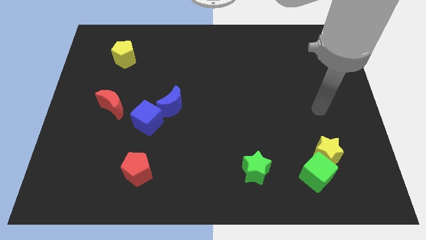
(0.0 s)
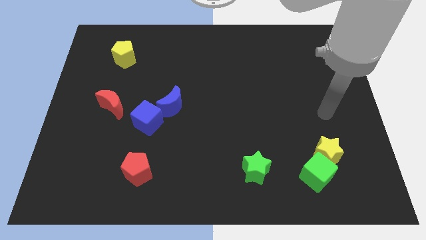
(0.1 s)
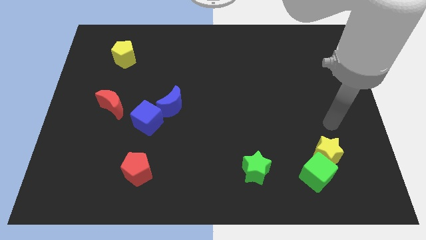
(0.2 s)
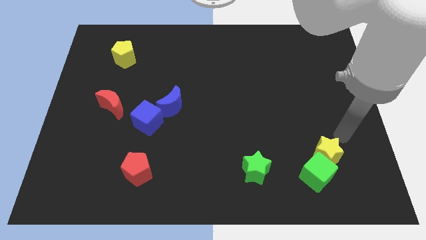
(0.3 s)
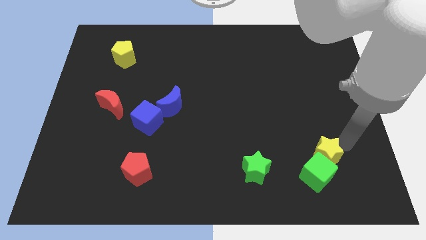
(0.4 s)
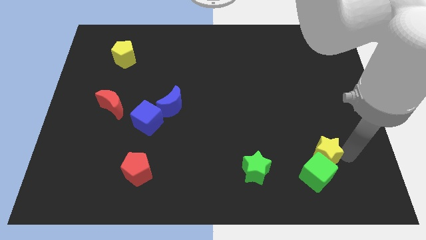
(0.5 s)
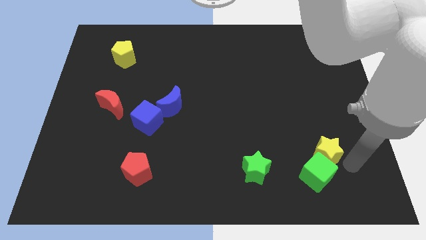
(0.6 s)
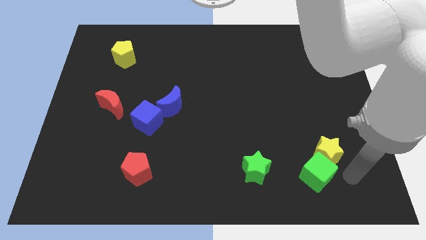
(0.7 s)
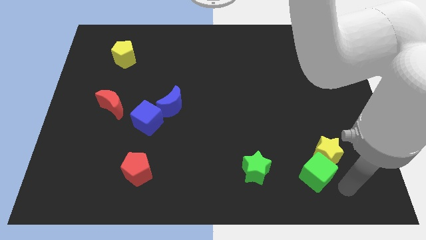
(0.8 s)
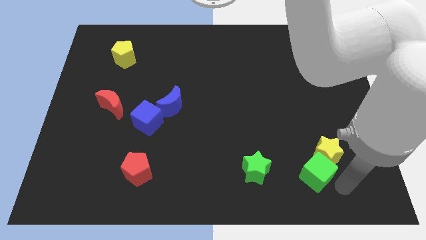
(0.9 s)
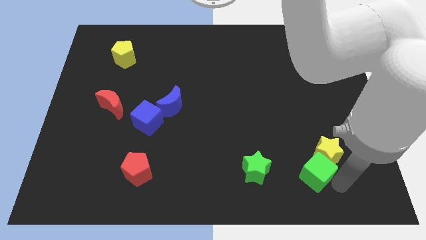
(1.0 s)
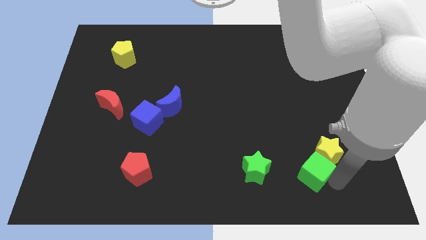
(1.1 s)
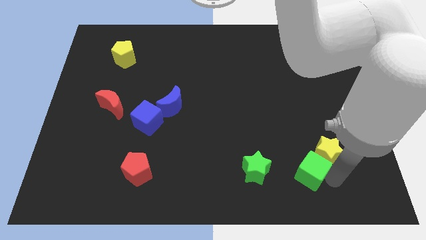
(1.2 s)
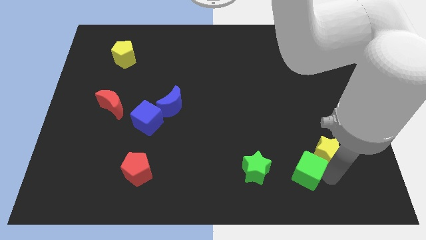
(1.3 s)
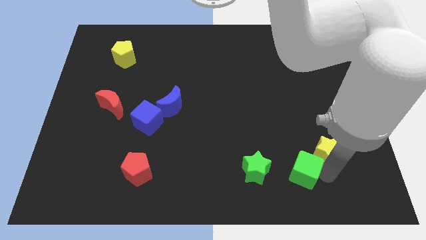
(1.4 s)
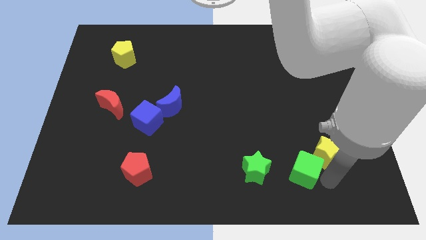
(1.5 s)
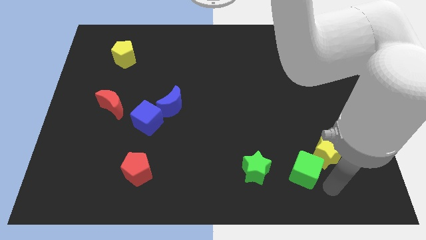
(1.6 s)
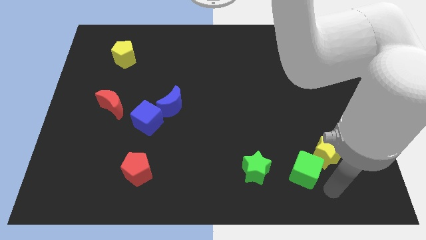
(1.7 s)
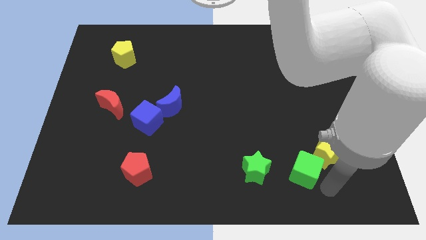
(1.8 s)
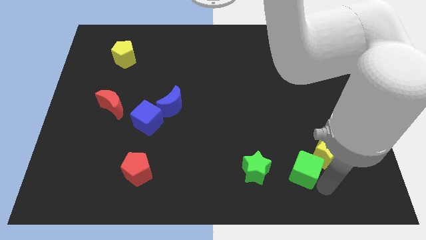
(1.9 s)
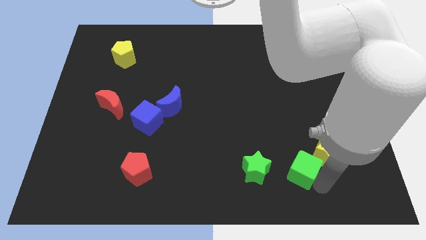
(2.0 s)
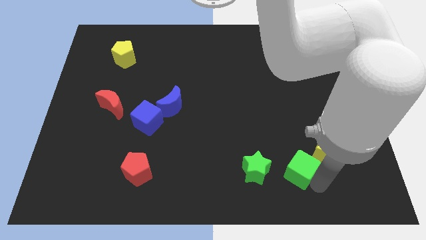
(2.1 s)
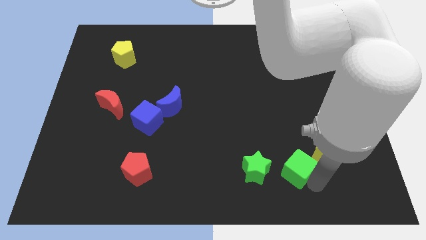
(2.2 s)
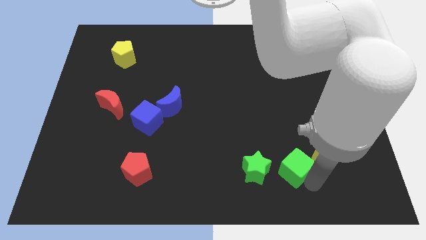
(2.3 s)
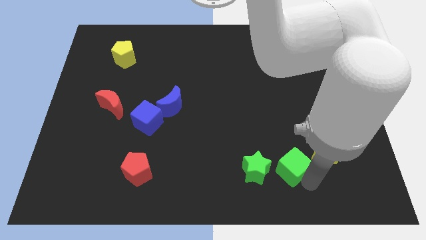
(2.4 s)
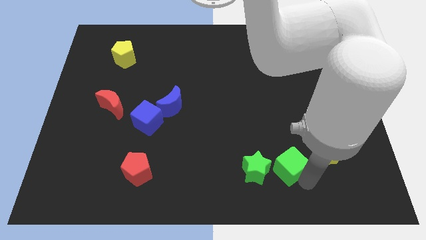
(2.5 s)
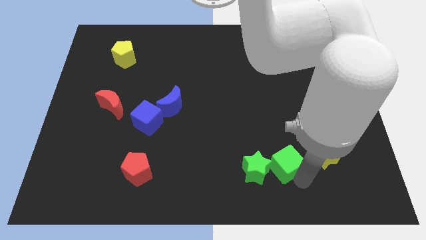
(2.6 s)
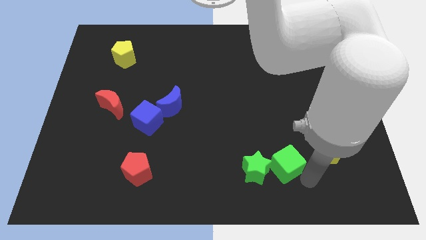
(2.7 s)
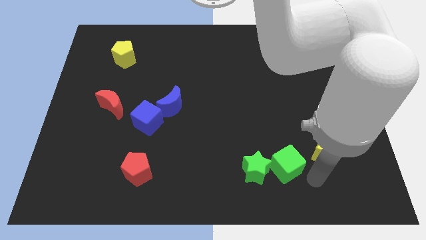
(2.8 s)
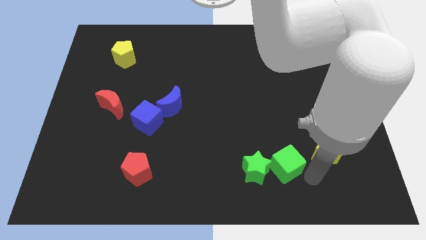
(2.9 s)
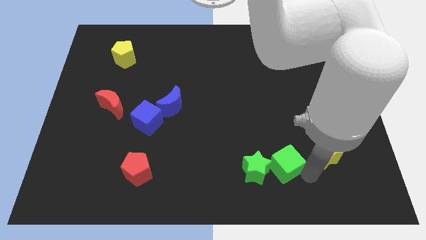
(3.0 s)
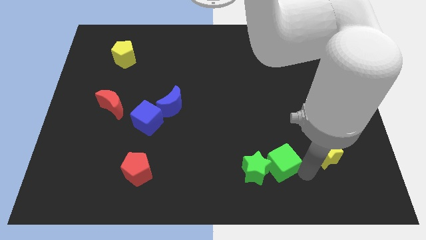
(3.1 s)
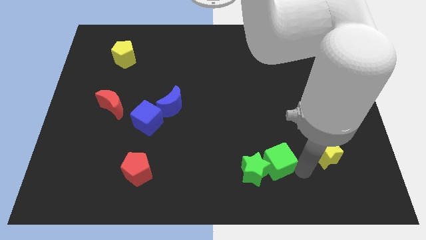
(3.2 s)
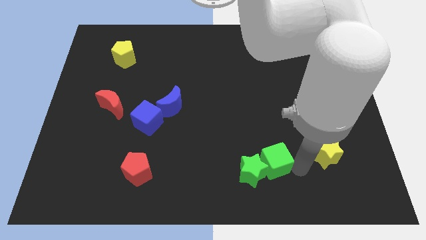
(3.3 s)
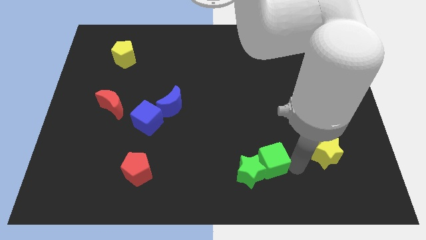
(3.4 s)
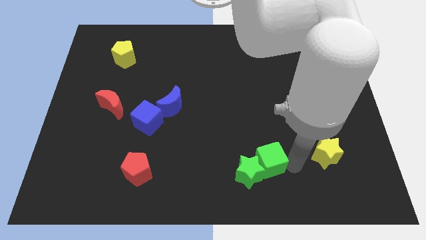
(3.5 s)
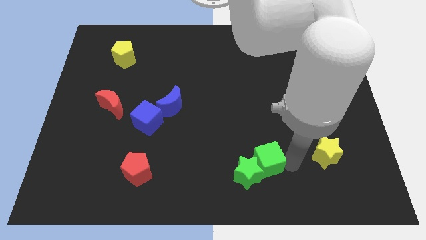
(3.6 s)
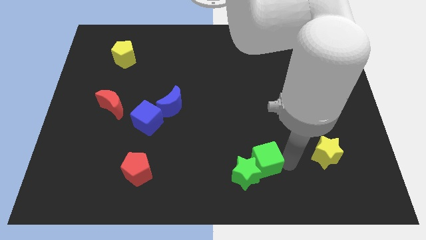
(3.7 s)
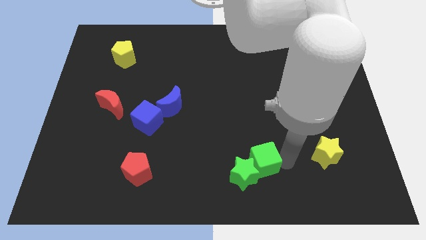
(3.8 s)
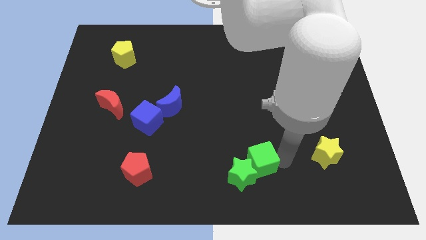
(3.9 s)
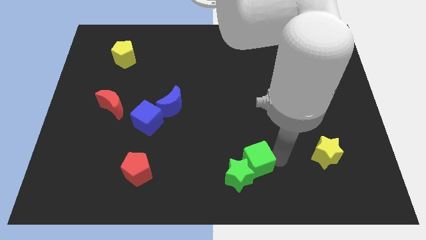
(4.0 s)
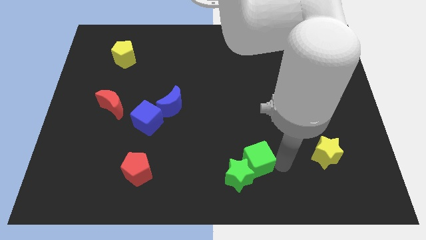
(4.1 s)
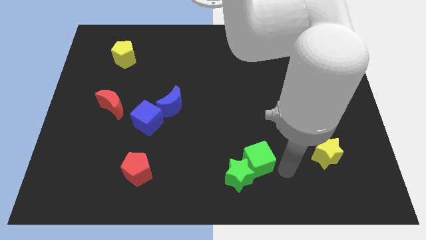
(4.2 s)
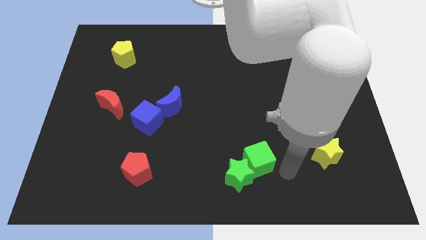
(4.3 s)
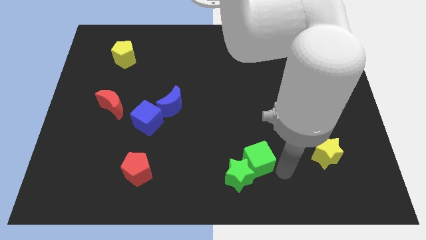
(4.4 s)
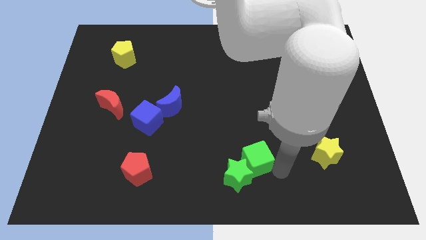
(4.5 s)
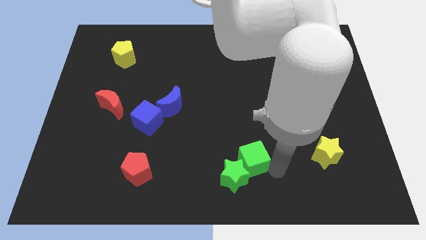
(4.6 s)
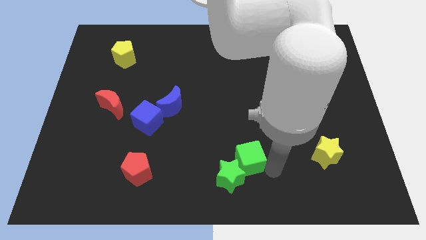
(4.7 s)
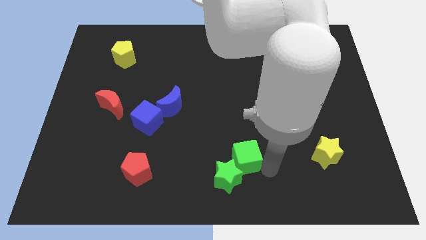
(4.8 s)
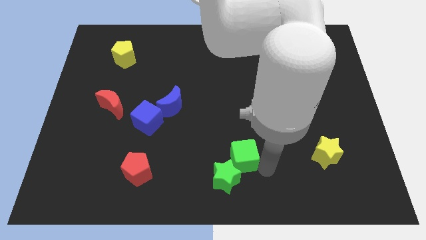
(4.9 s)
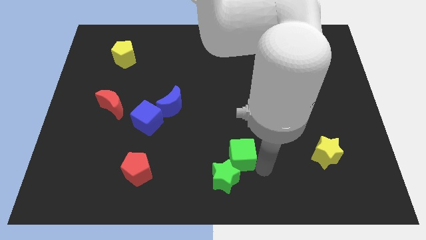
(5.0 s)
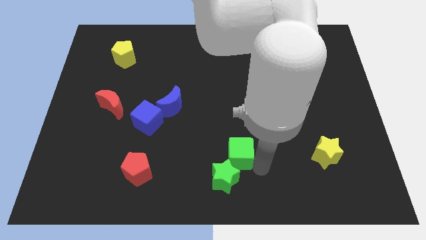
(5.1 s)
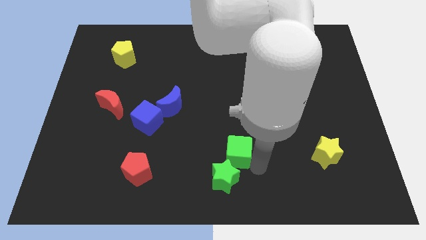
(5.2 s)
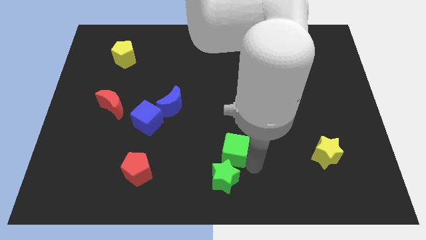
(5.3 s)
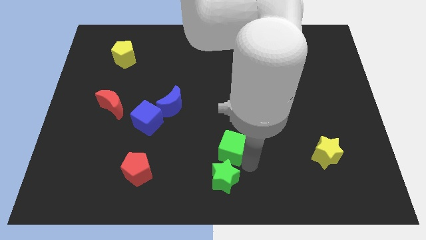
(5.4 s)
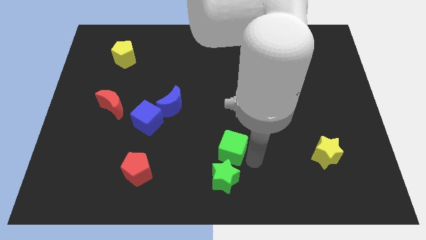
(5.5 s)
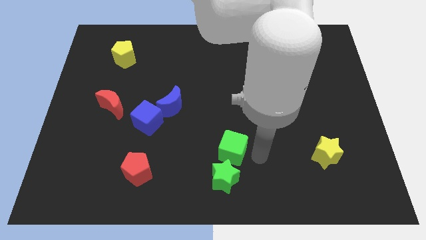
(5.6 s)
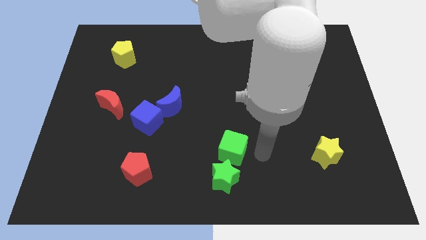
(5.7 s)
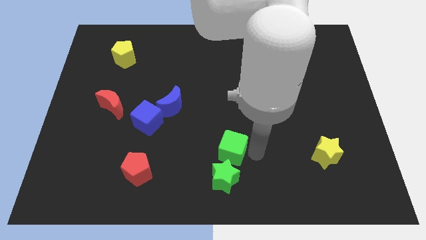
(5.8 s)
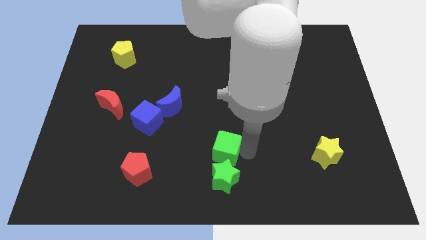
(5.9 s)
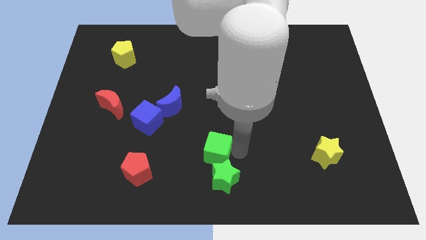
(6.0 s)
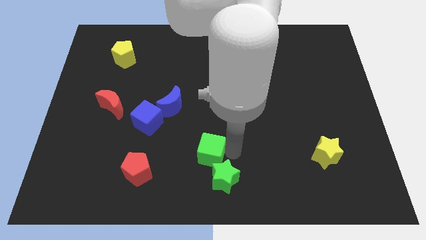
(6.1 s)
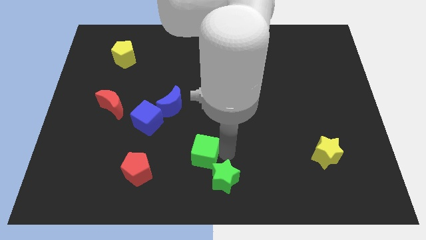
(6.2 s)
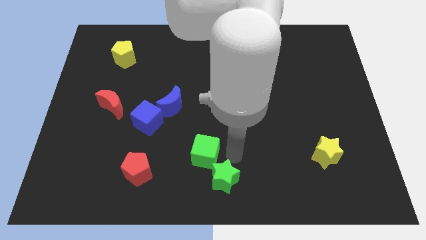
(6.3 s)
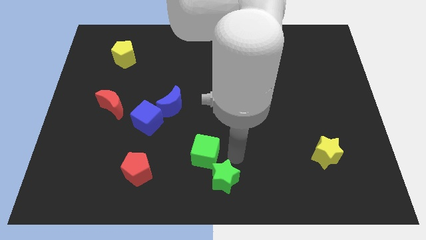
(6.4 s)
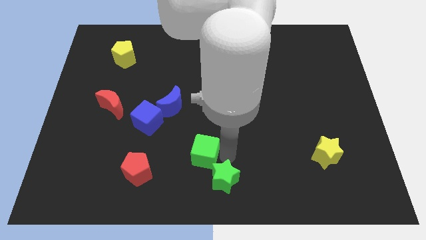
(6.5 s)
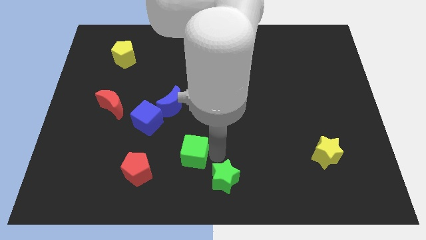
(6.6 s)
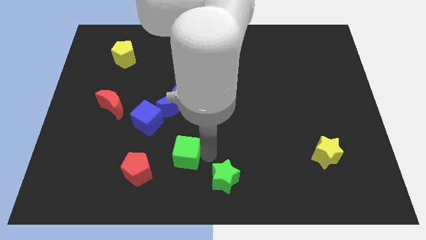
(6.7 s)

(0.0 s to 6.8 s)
slide the green cube diagonally up and to the right of the red pentagon

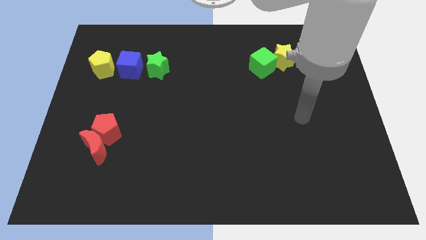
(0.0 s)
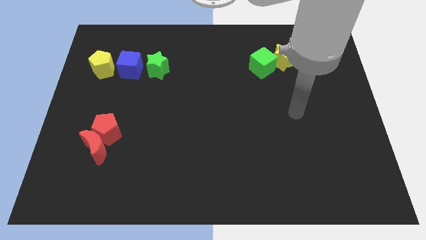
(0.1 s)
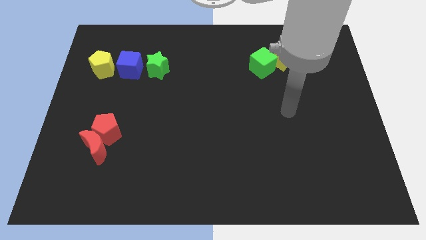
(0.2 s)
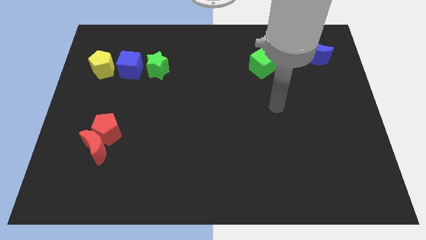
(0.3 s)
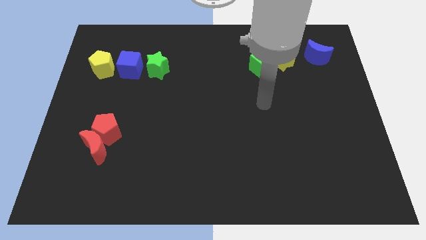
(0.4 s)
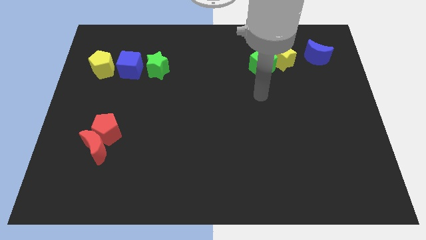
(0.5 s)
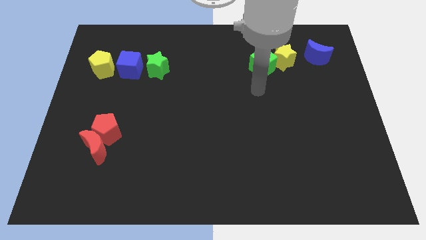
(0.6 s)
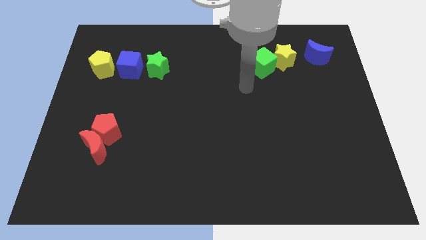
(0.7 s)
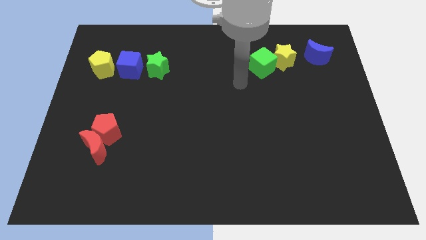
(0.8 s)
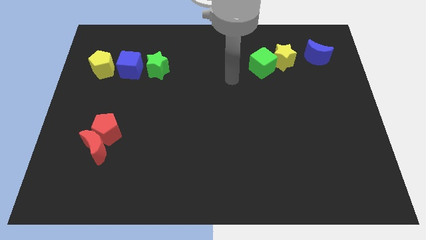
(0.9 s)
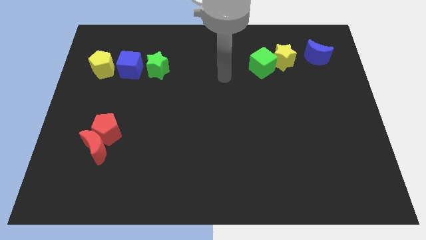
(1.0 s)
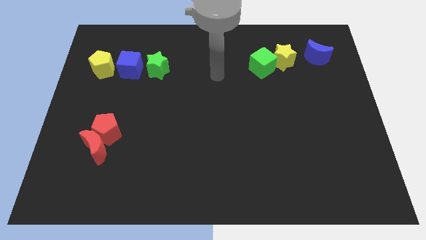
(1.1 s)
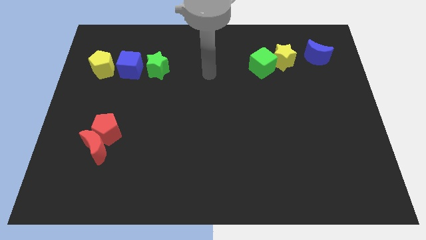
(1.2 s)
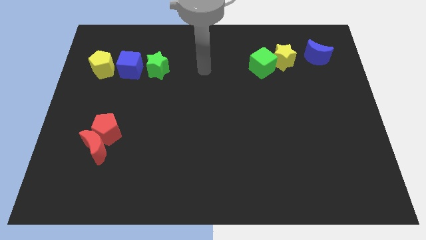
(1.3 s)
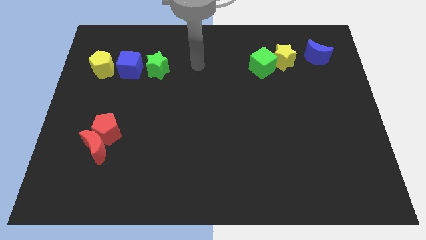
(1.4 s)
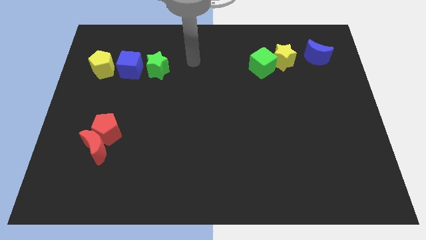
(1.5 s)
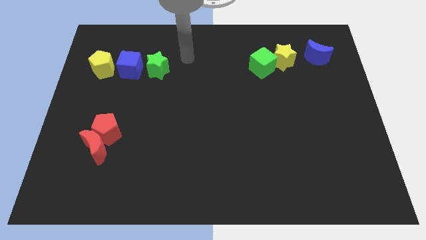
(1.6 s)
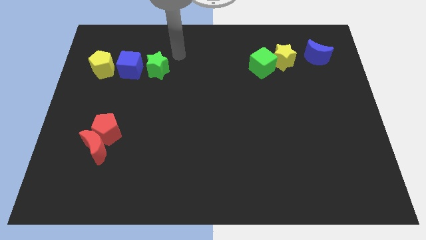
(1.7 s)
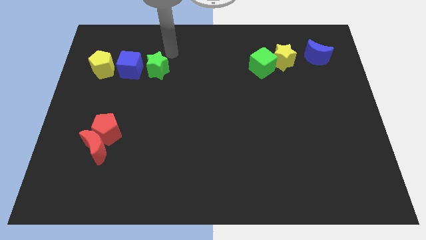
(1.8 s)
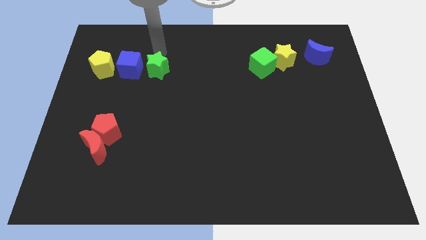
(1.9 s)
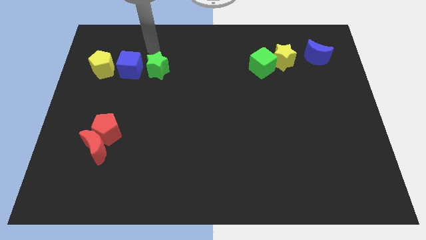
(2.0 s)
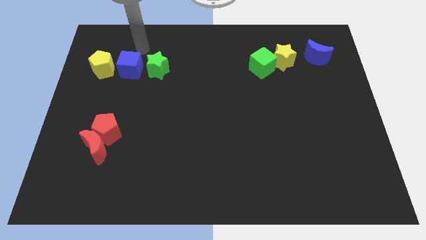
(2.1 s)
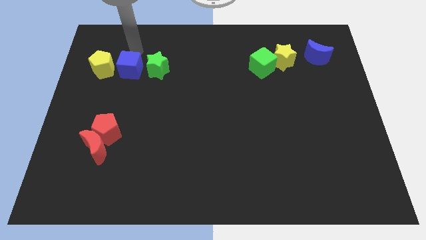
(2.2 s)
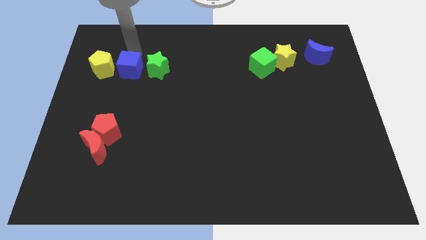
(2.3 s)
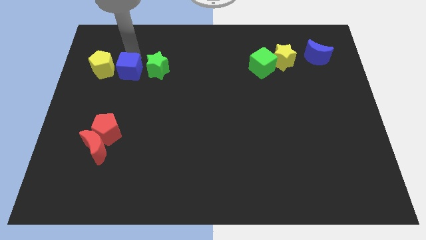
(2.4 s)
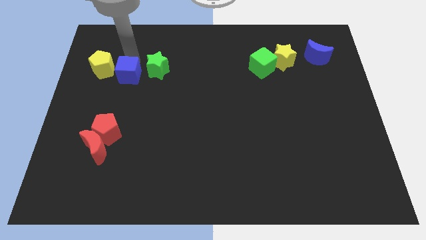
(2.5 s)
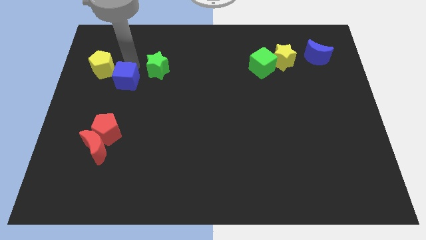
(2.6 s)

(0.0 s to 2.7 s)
move the blue cube to the top side of the red pentagon
